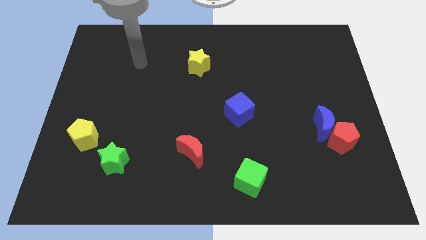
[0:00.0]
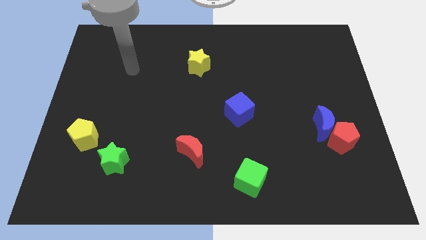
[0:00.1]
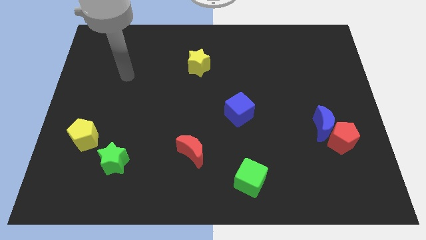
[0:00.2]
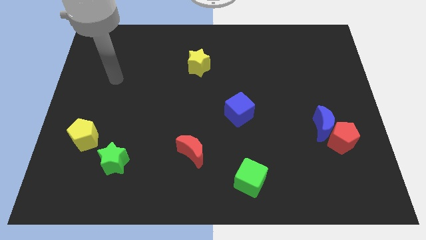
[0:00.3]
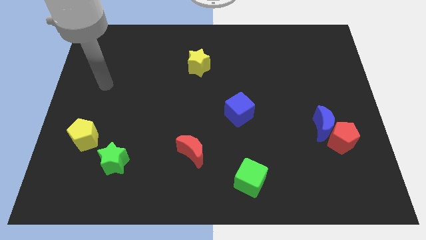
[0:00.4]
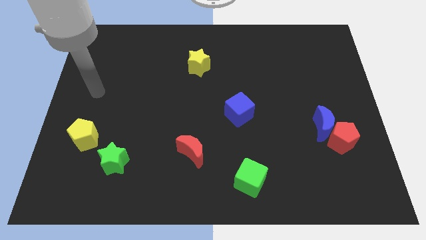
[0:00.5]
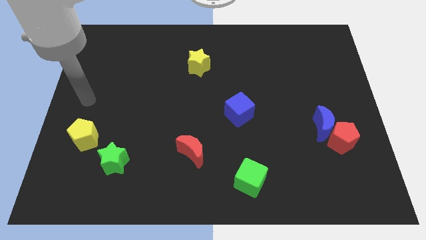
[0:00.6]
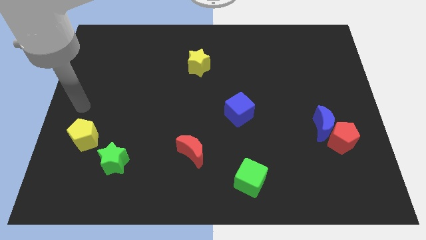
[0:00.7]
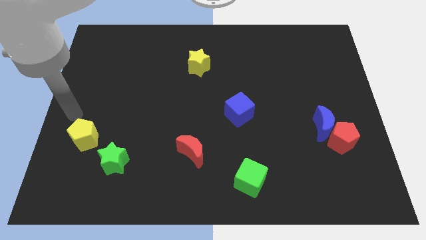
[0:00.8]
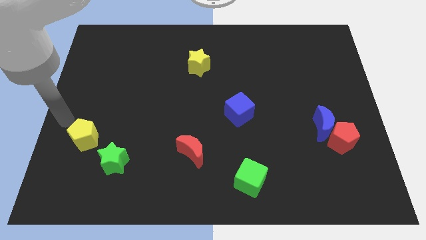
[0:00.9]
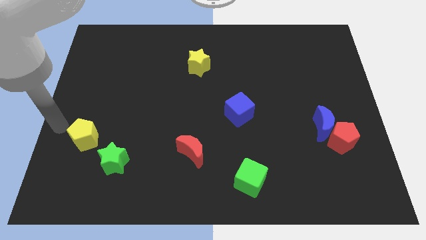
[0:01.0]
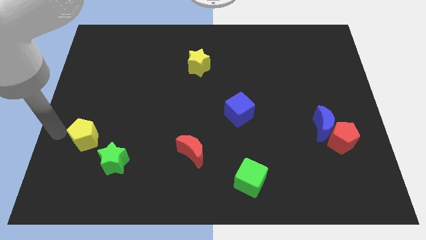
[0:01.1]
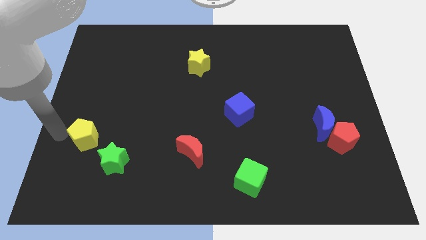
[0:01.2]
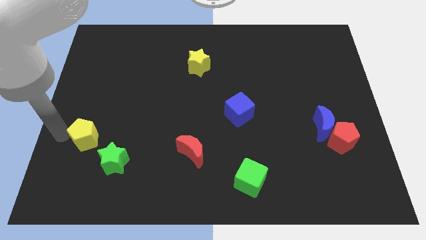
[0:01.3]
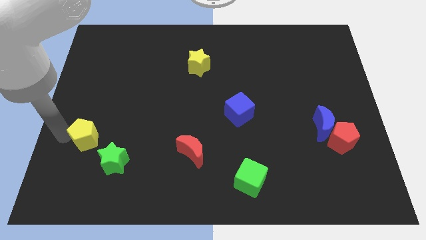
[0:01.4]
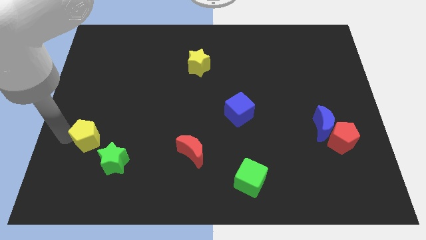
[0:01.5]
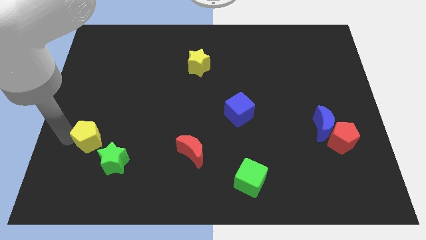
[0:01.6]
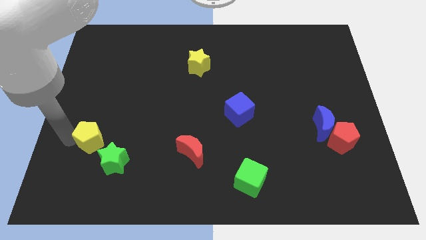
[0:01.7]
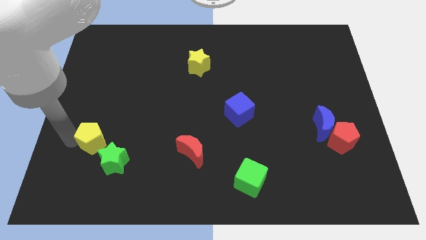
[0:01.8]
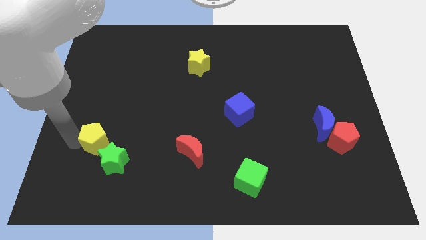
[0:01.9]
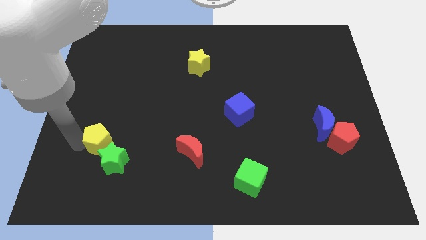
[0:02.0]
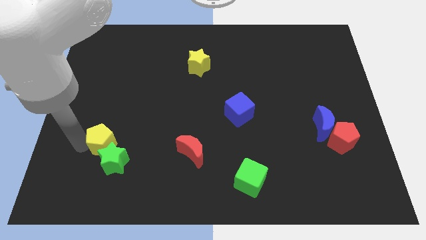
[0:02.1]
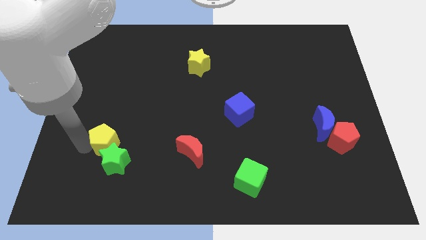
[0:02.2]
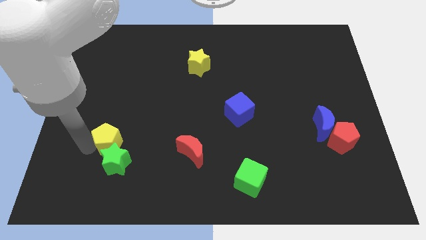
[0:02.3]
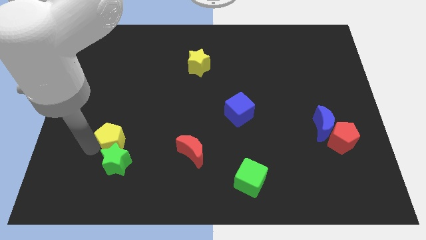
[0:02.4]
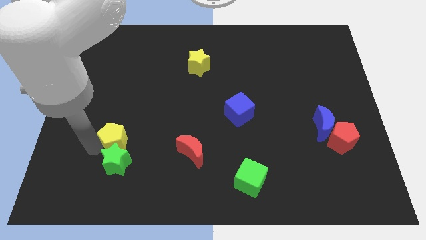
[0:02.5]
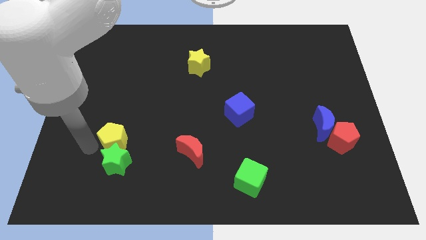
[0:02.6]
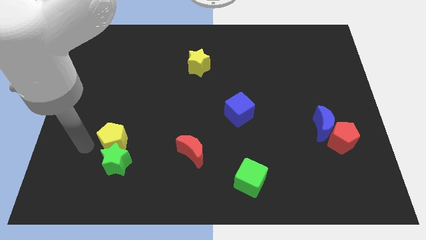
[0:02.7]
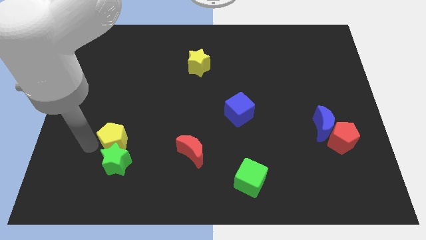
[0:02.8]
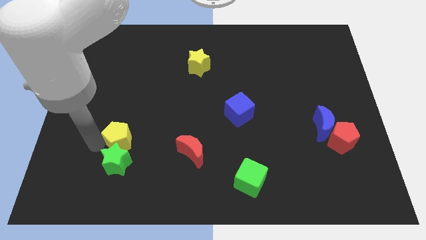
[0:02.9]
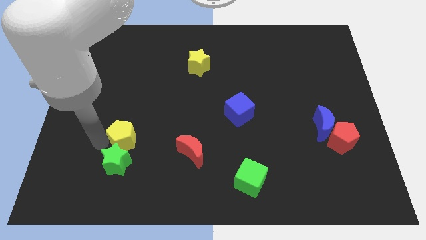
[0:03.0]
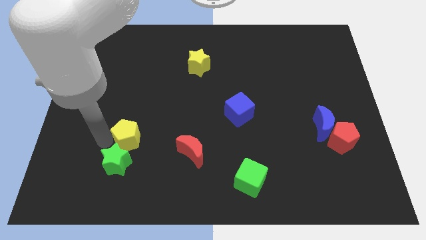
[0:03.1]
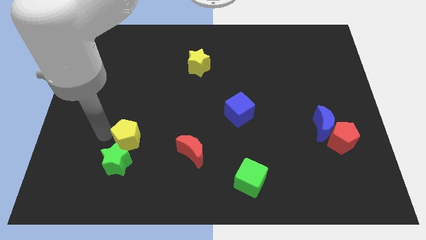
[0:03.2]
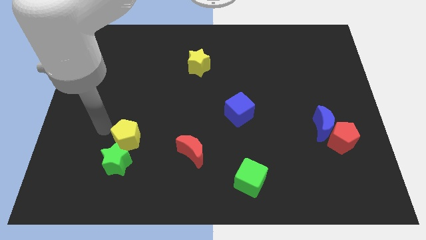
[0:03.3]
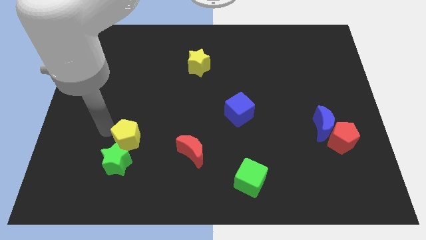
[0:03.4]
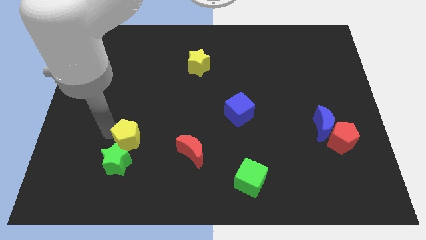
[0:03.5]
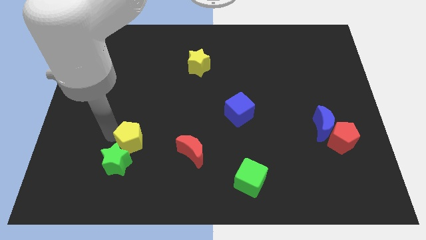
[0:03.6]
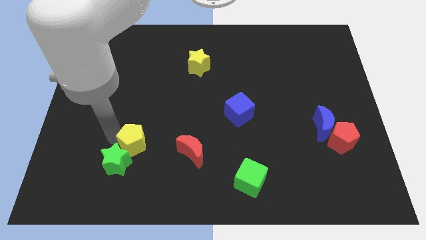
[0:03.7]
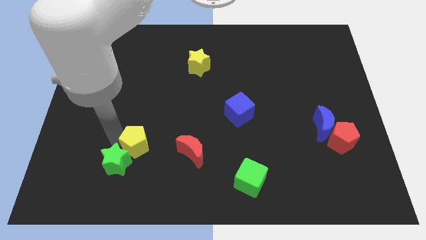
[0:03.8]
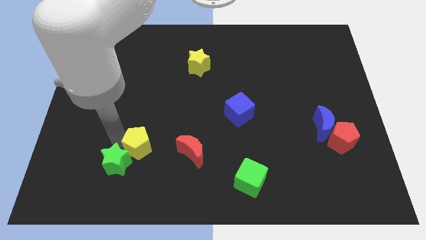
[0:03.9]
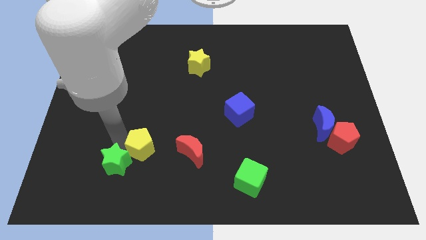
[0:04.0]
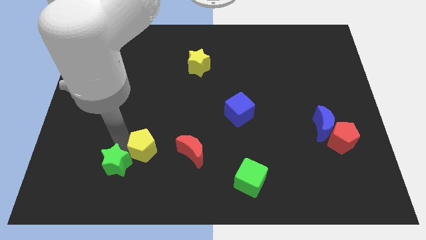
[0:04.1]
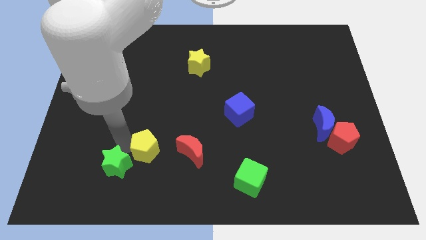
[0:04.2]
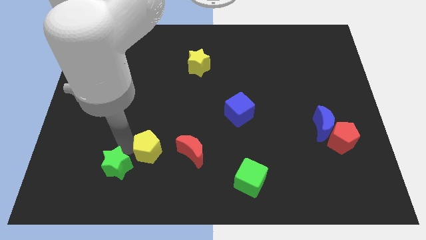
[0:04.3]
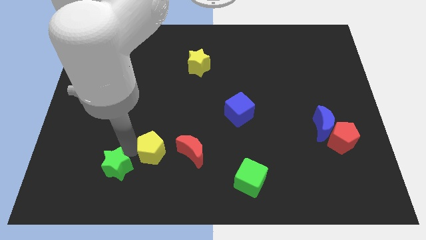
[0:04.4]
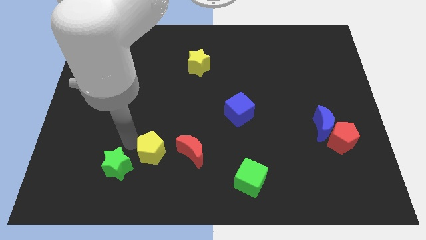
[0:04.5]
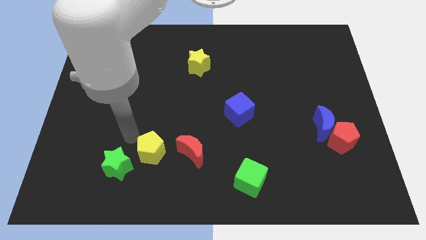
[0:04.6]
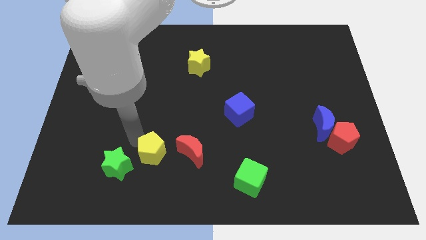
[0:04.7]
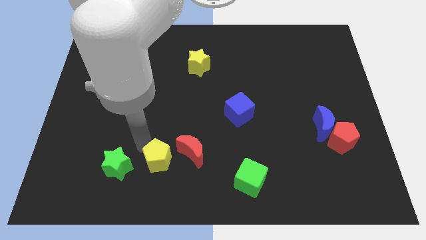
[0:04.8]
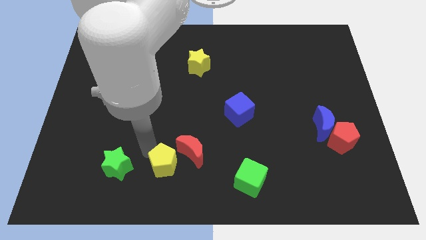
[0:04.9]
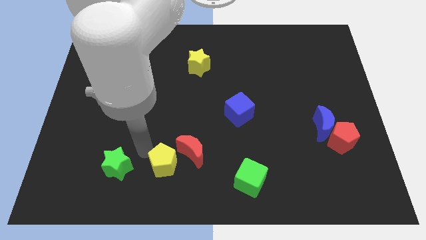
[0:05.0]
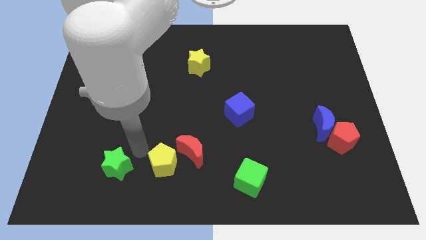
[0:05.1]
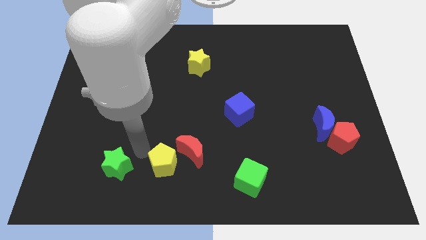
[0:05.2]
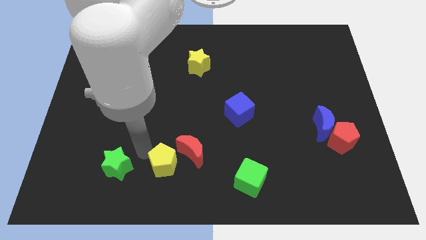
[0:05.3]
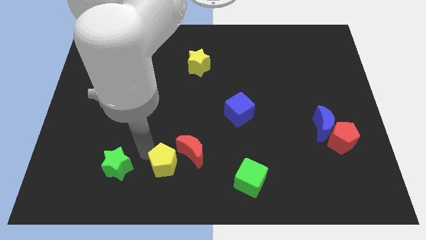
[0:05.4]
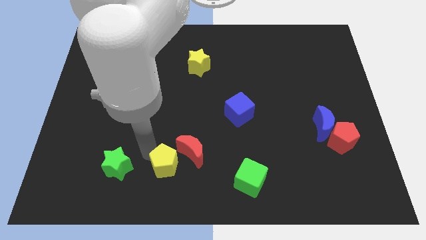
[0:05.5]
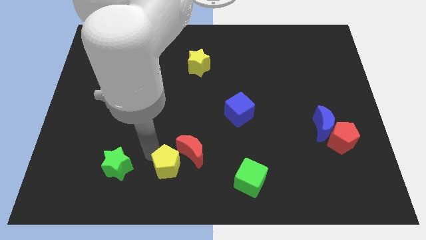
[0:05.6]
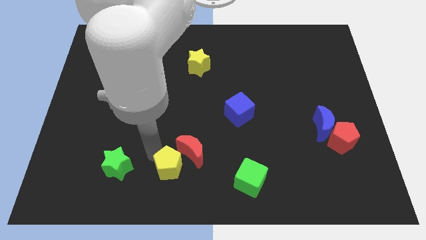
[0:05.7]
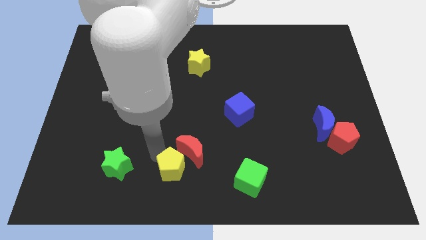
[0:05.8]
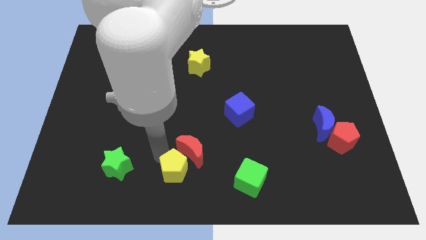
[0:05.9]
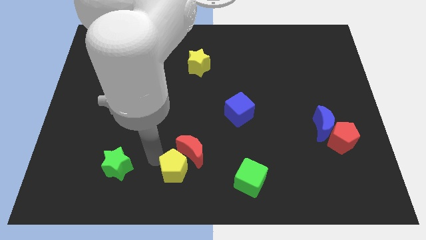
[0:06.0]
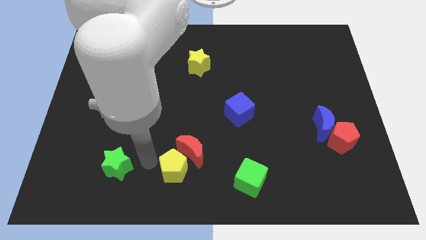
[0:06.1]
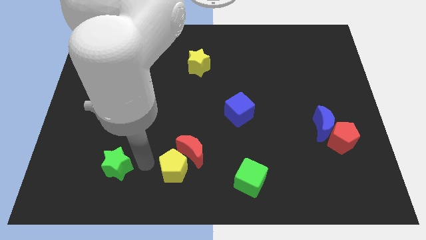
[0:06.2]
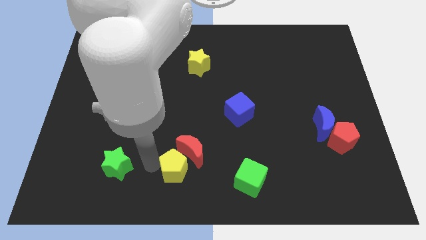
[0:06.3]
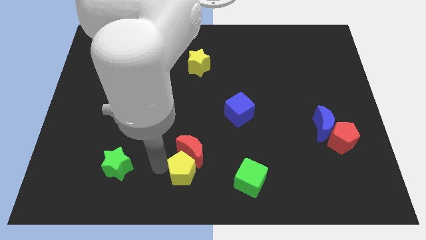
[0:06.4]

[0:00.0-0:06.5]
slide the yellow pentagon to the bottom right of the red moon

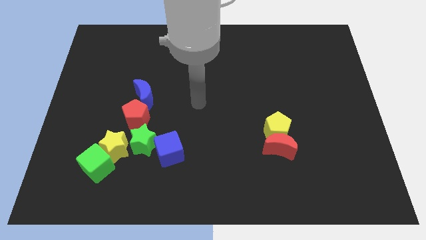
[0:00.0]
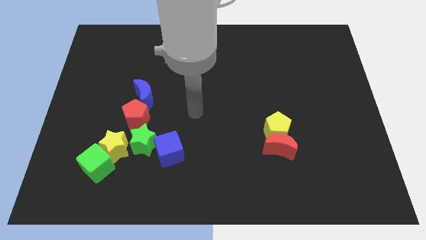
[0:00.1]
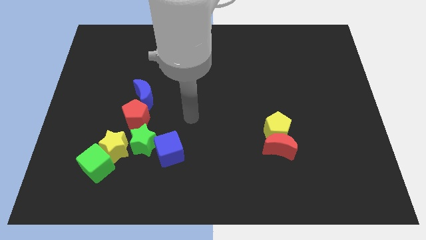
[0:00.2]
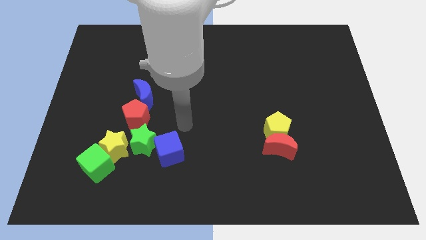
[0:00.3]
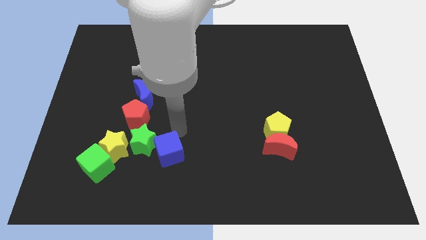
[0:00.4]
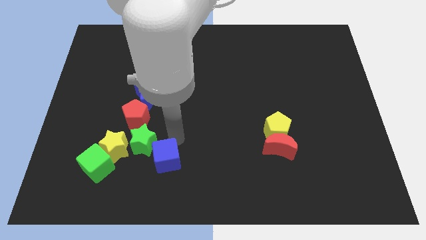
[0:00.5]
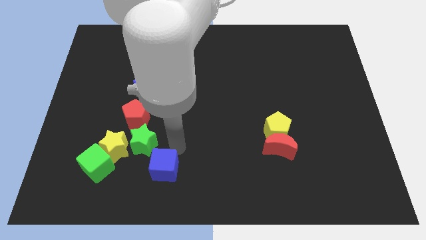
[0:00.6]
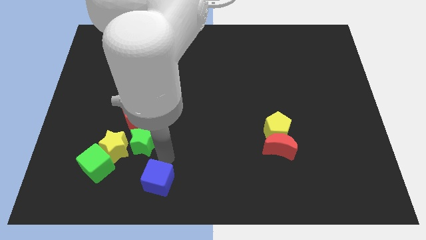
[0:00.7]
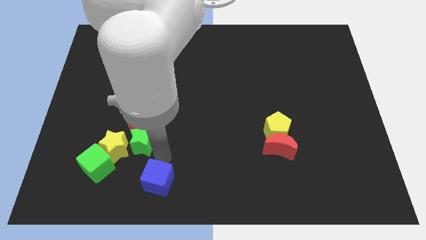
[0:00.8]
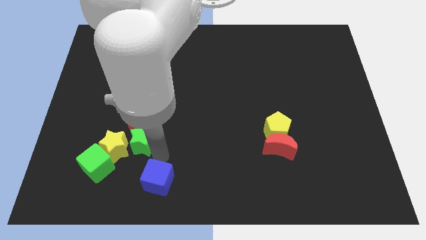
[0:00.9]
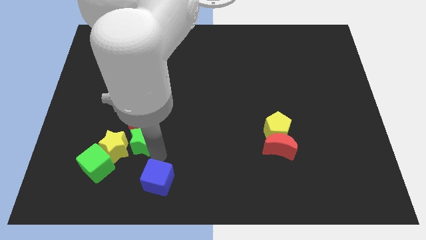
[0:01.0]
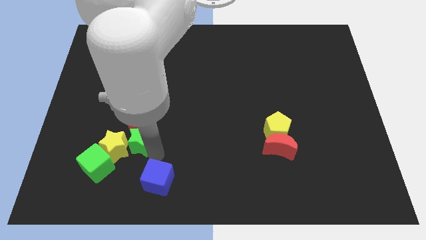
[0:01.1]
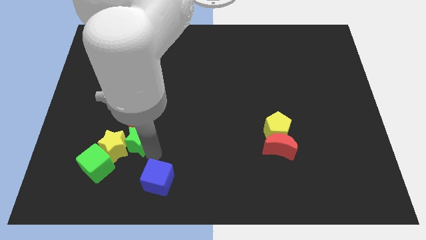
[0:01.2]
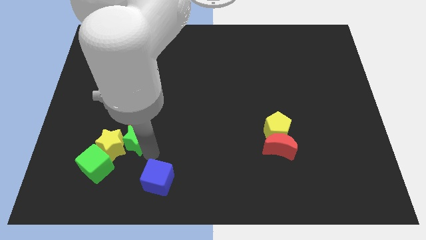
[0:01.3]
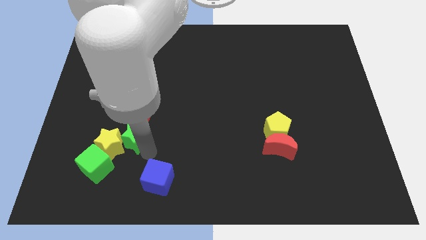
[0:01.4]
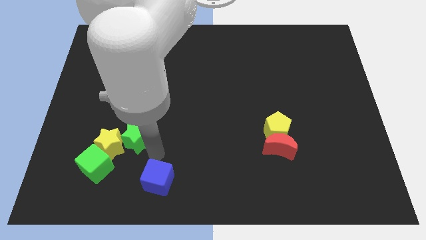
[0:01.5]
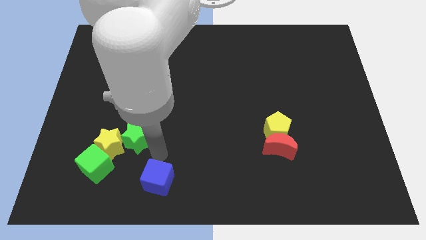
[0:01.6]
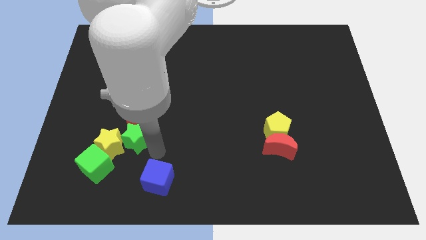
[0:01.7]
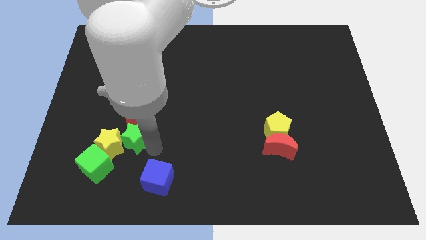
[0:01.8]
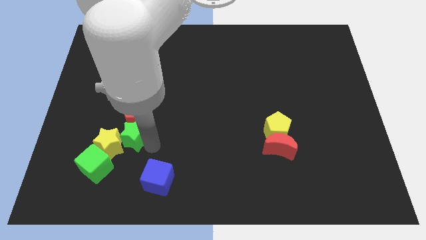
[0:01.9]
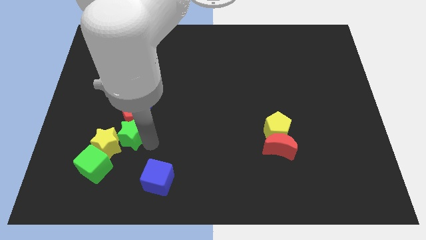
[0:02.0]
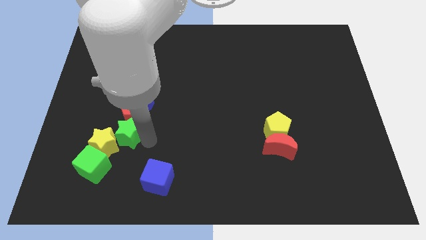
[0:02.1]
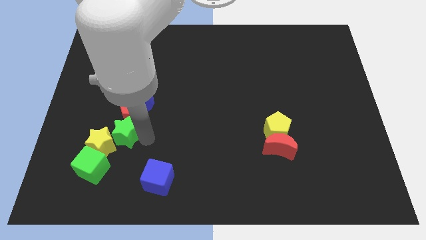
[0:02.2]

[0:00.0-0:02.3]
slide the green star above the yellow star
